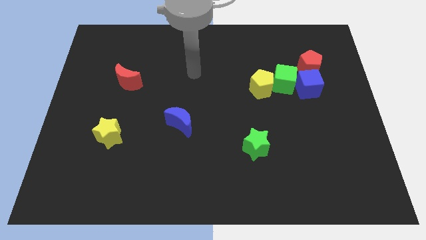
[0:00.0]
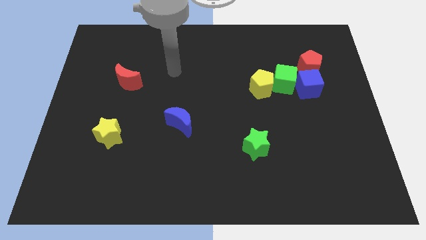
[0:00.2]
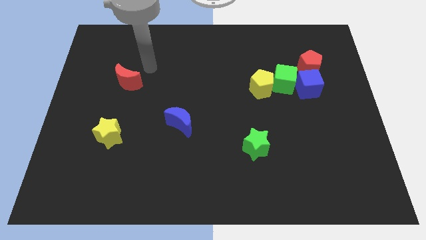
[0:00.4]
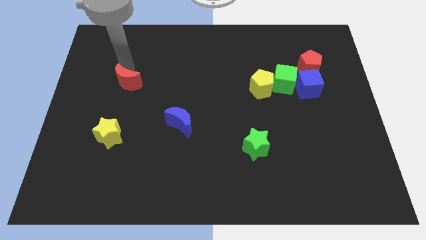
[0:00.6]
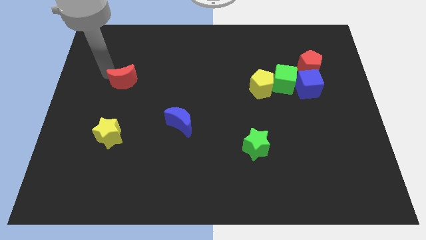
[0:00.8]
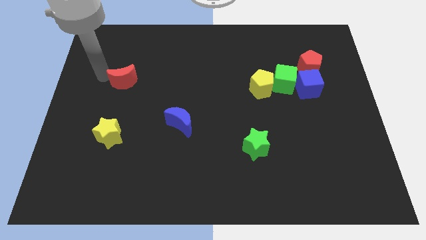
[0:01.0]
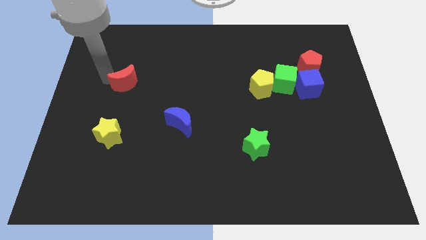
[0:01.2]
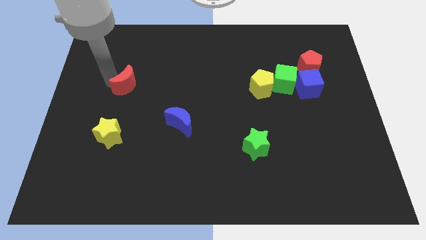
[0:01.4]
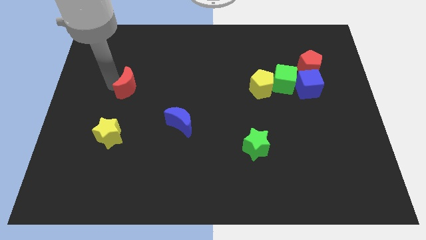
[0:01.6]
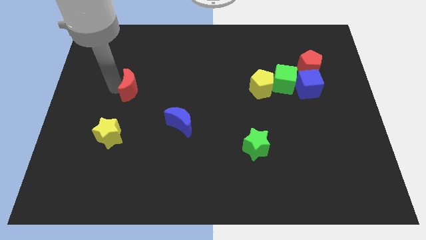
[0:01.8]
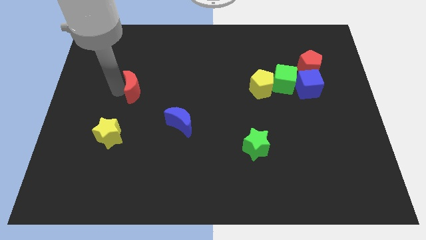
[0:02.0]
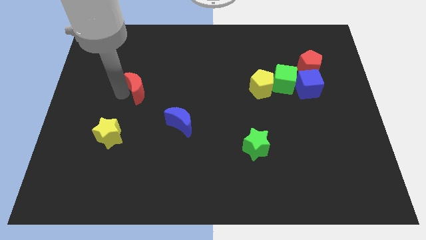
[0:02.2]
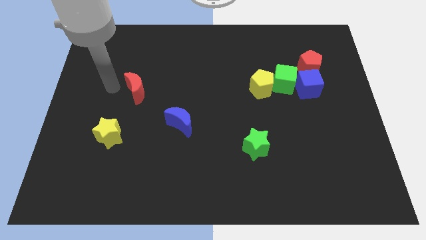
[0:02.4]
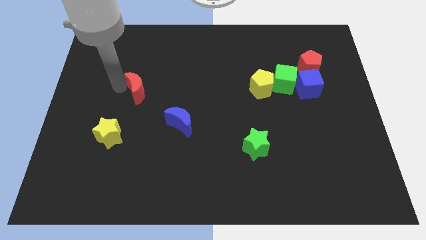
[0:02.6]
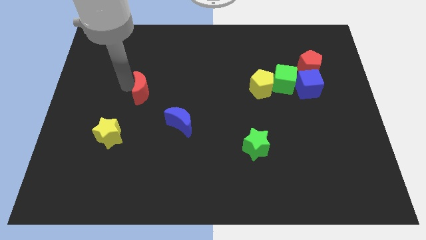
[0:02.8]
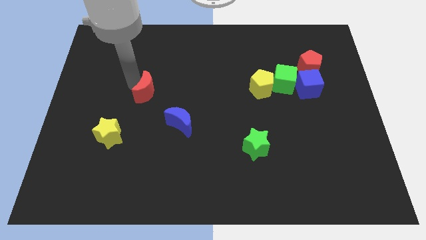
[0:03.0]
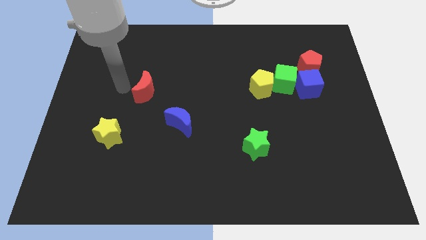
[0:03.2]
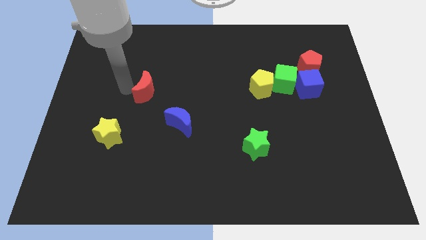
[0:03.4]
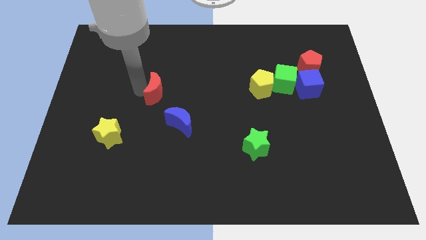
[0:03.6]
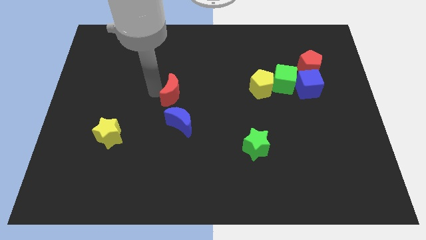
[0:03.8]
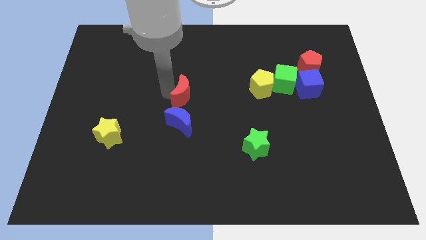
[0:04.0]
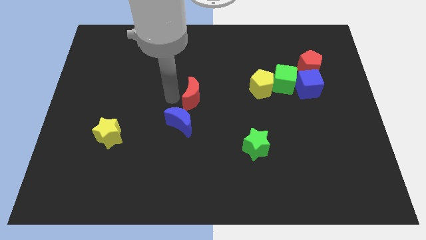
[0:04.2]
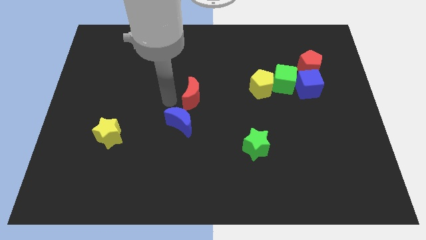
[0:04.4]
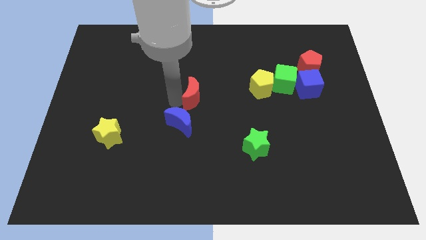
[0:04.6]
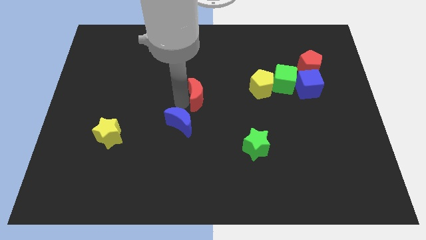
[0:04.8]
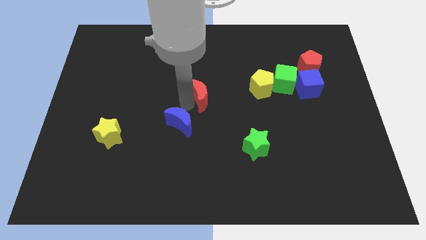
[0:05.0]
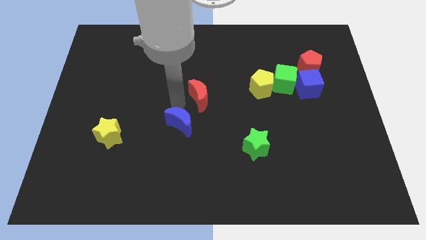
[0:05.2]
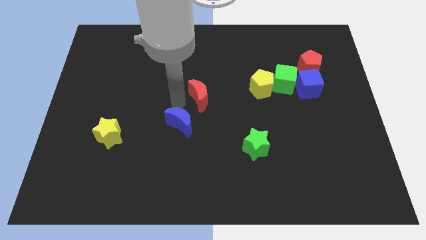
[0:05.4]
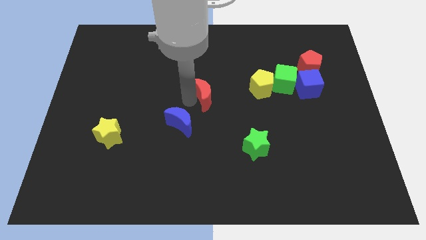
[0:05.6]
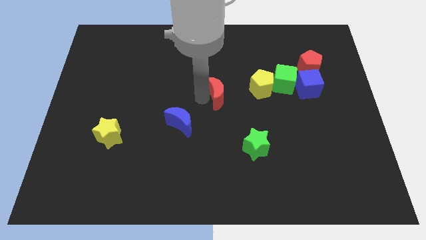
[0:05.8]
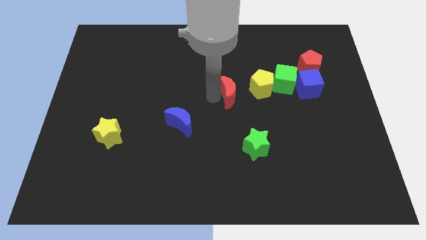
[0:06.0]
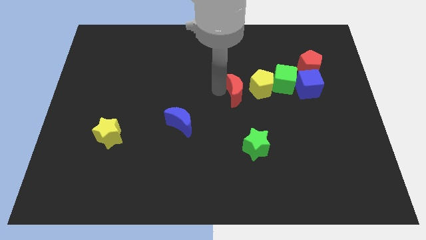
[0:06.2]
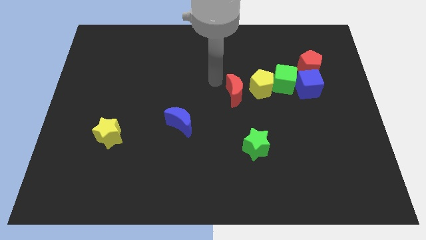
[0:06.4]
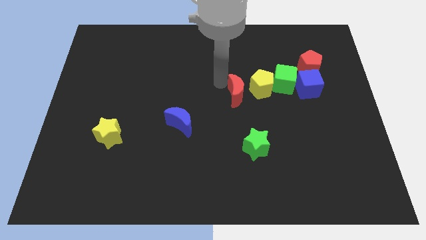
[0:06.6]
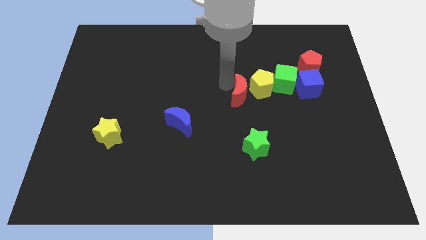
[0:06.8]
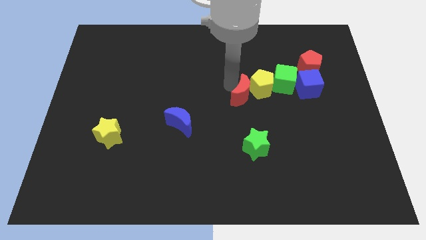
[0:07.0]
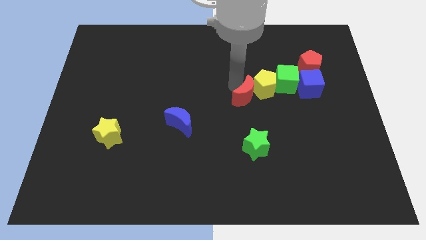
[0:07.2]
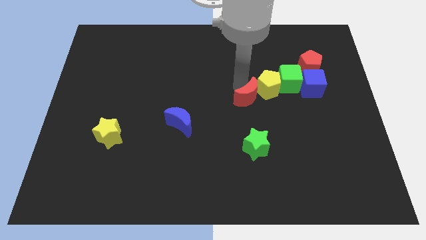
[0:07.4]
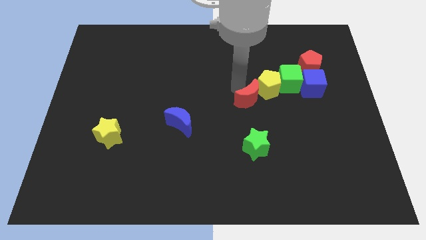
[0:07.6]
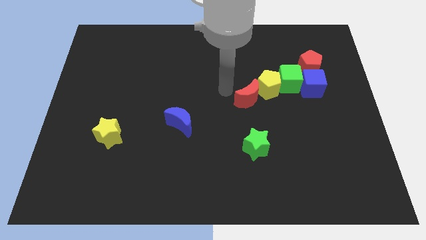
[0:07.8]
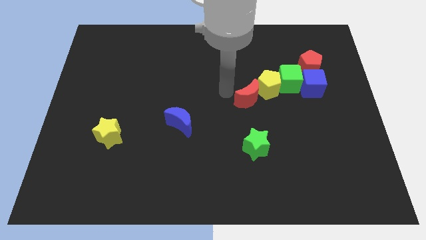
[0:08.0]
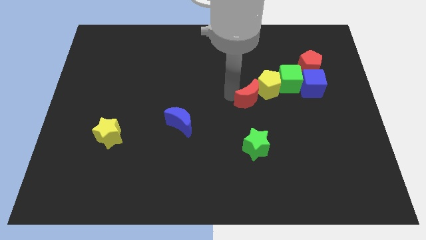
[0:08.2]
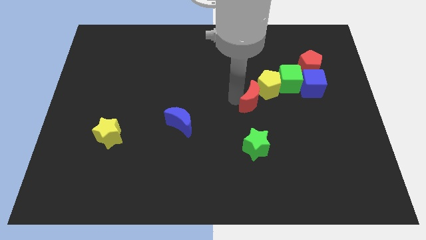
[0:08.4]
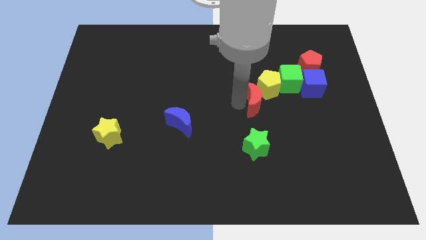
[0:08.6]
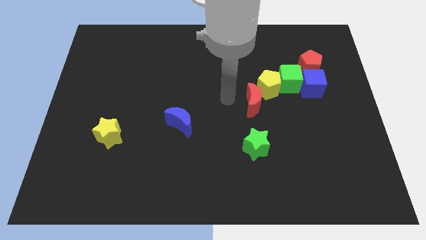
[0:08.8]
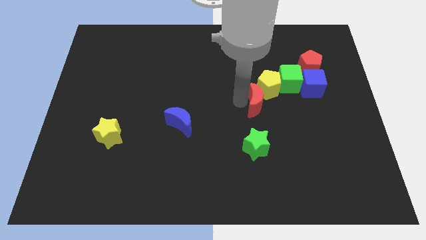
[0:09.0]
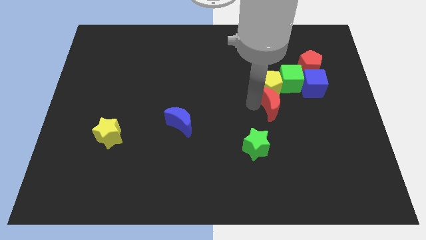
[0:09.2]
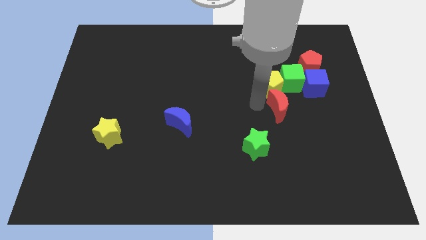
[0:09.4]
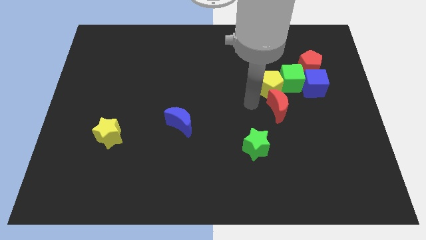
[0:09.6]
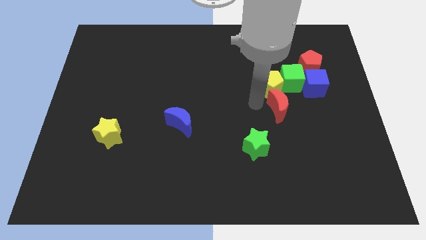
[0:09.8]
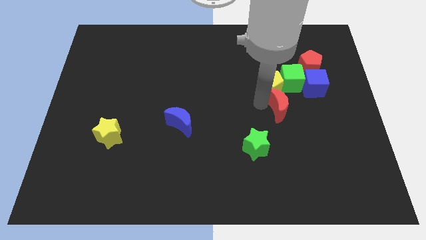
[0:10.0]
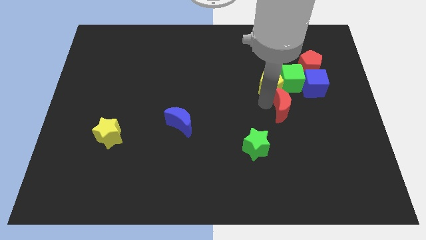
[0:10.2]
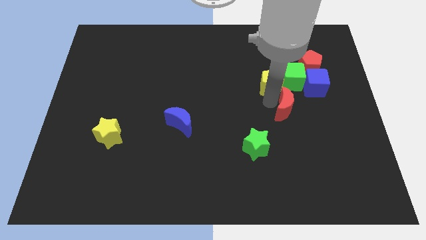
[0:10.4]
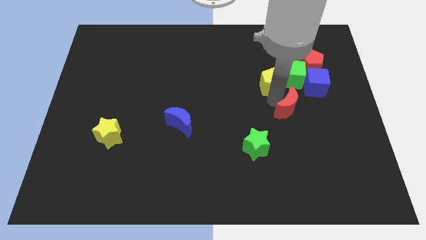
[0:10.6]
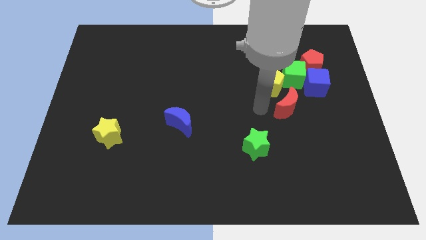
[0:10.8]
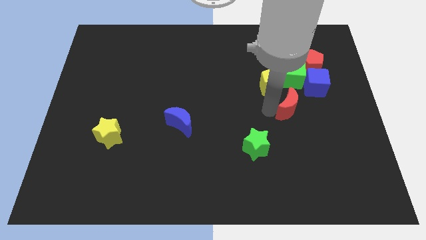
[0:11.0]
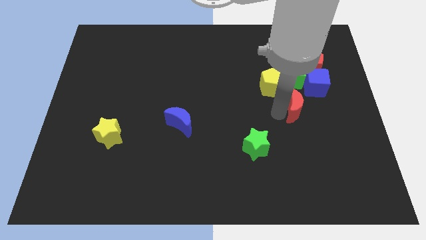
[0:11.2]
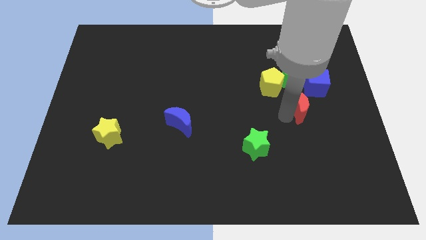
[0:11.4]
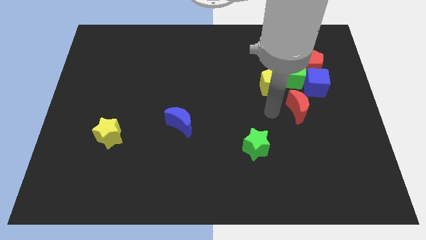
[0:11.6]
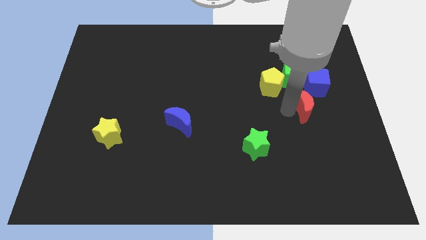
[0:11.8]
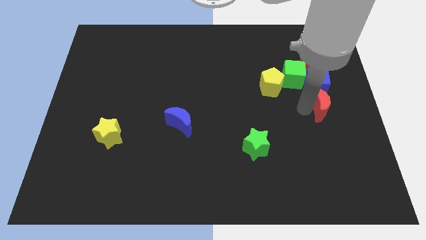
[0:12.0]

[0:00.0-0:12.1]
slide the red moon to the right side of the board
